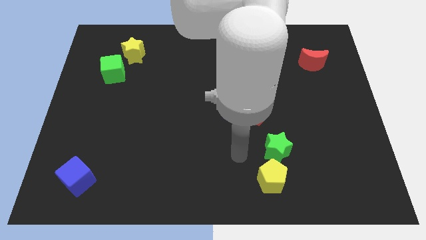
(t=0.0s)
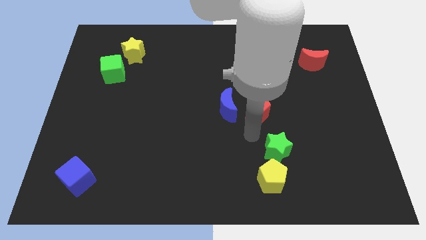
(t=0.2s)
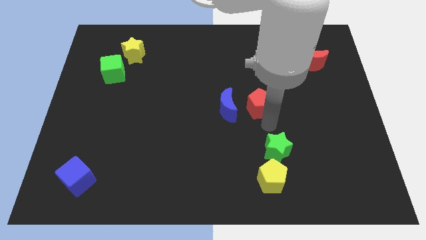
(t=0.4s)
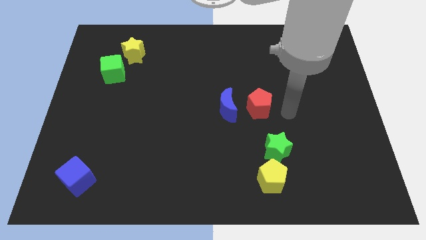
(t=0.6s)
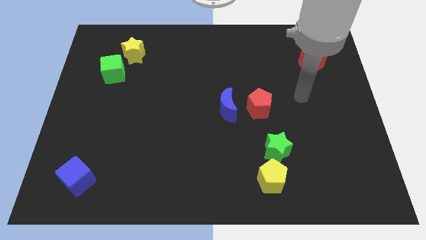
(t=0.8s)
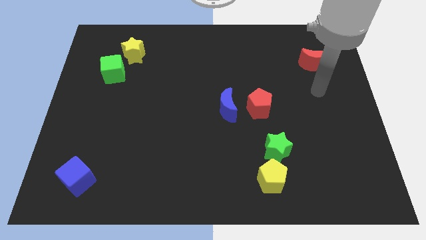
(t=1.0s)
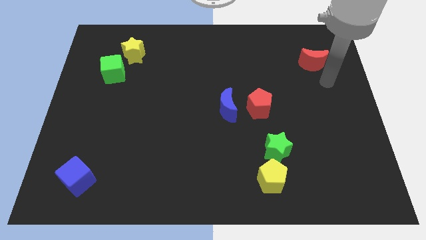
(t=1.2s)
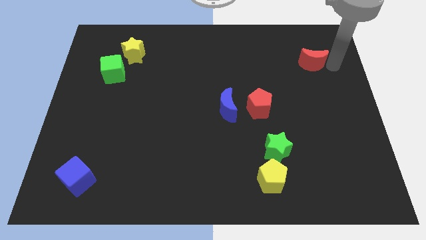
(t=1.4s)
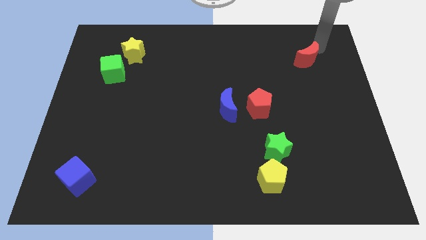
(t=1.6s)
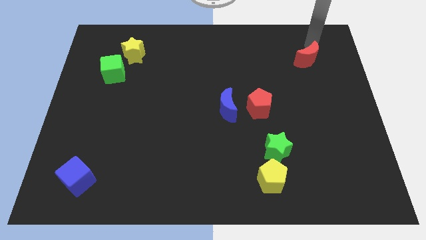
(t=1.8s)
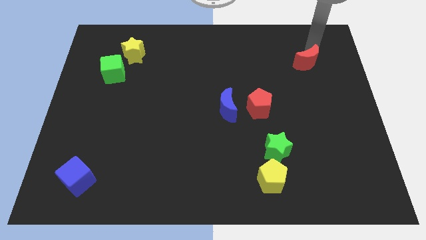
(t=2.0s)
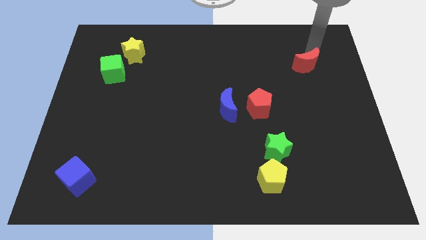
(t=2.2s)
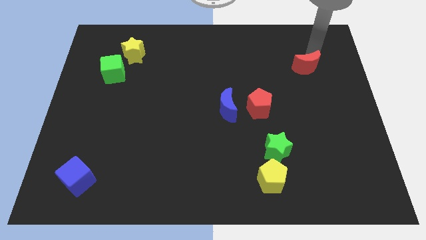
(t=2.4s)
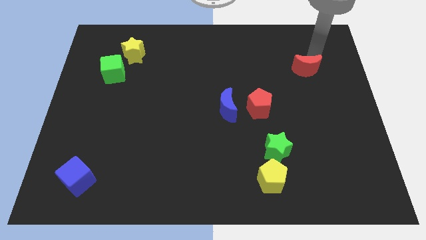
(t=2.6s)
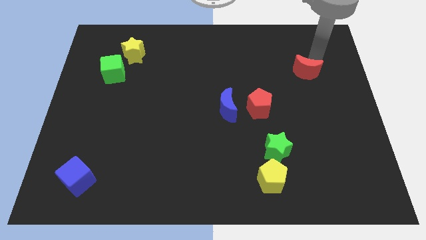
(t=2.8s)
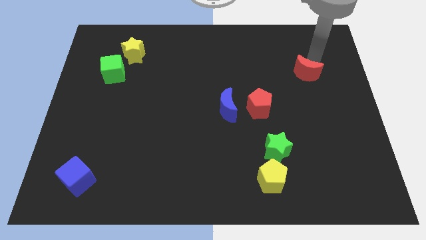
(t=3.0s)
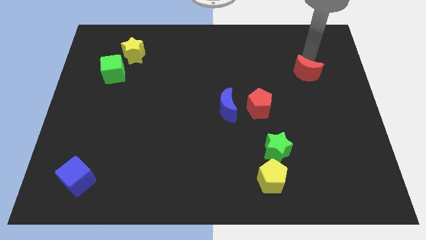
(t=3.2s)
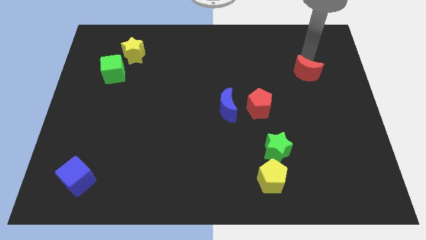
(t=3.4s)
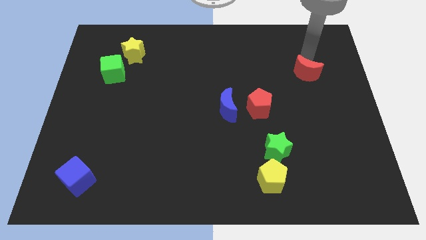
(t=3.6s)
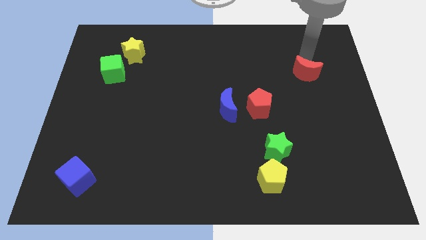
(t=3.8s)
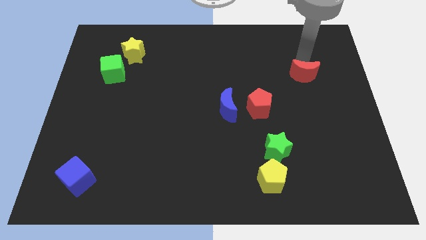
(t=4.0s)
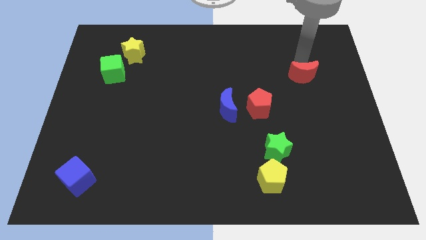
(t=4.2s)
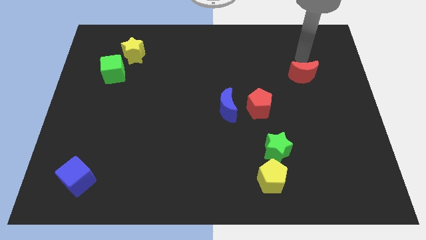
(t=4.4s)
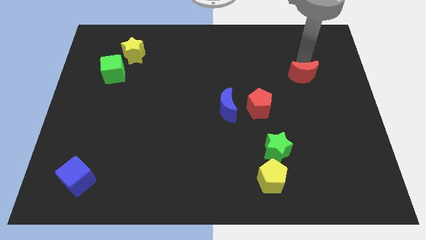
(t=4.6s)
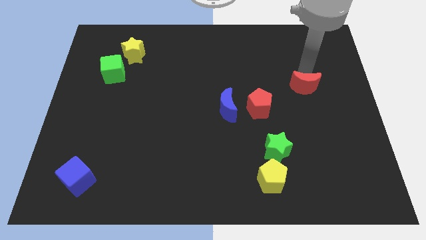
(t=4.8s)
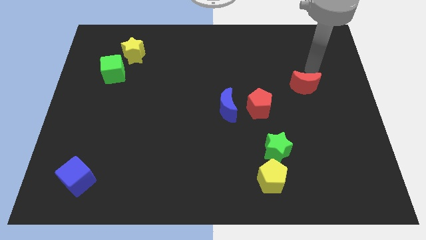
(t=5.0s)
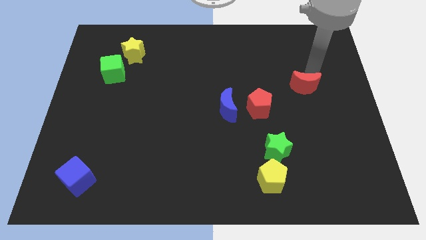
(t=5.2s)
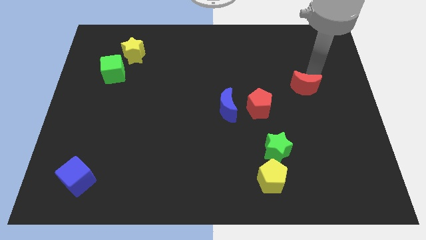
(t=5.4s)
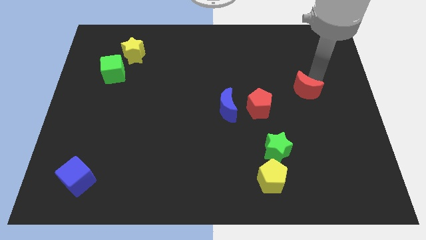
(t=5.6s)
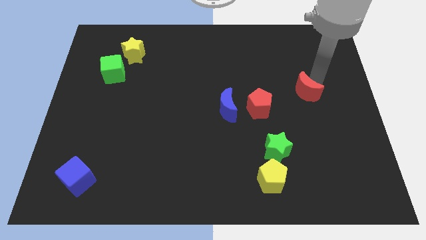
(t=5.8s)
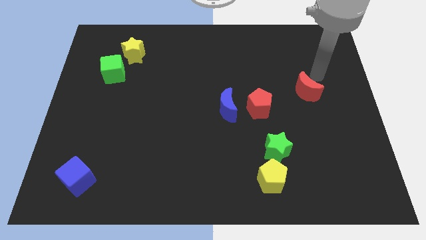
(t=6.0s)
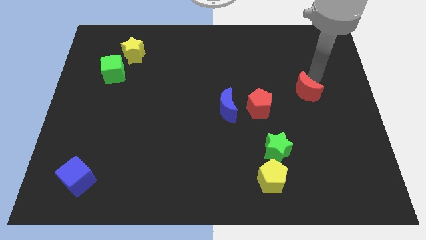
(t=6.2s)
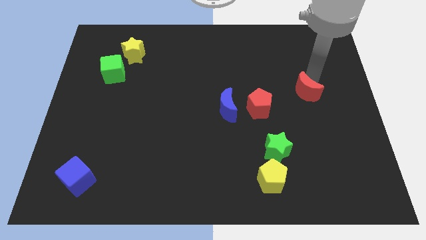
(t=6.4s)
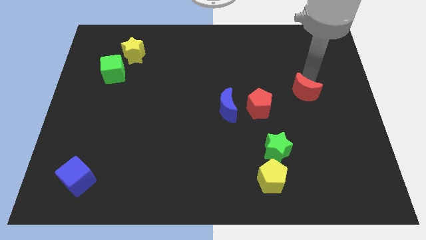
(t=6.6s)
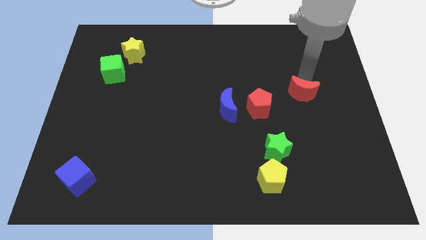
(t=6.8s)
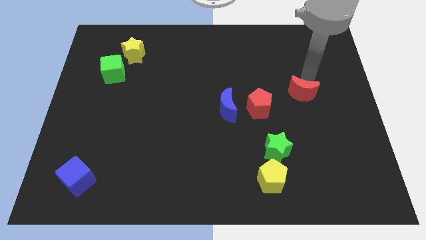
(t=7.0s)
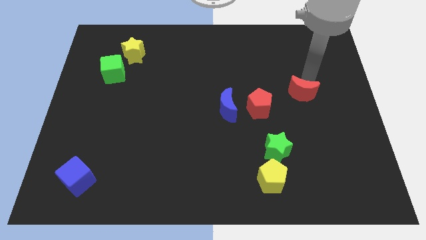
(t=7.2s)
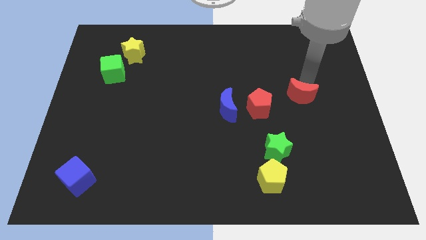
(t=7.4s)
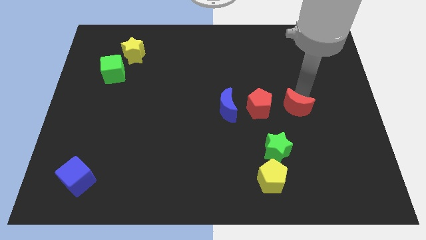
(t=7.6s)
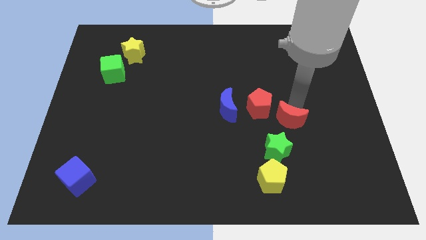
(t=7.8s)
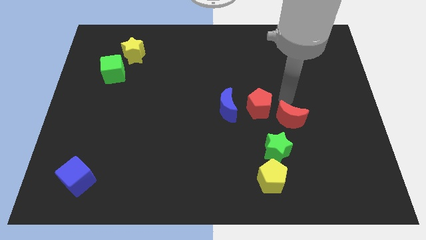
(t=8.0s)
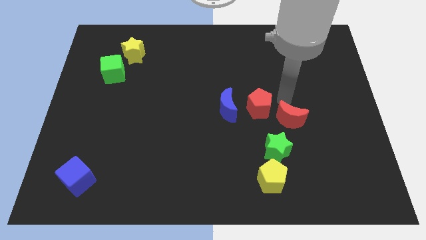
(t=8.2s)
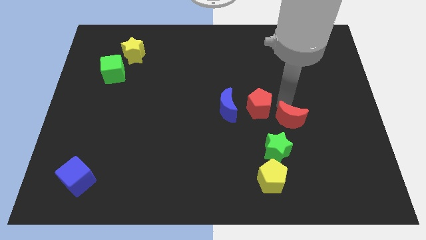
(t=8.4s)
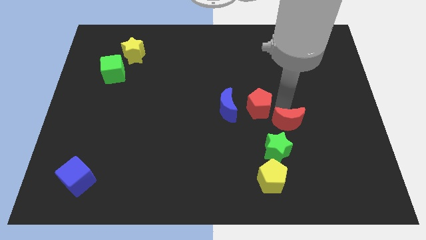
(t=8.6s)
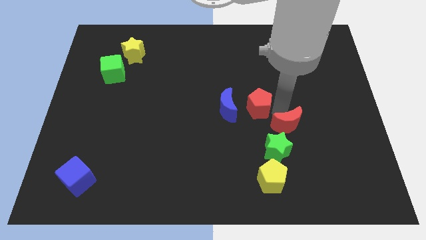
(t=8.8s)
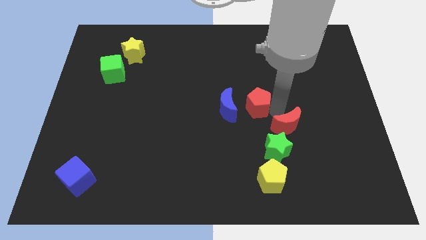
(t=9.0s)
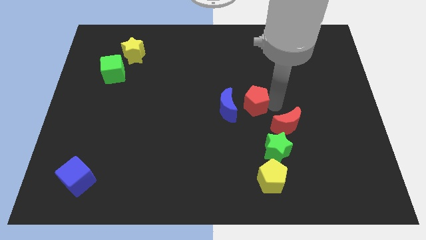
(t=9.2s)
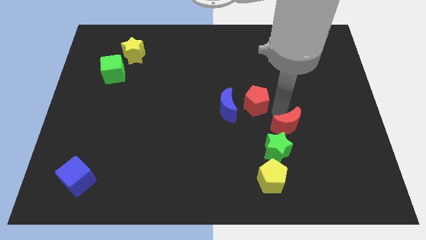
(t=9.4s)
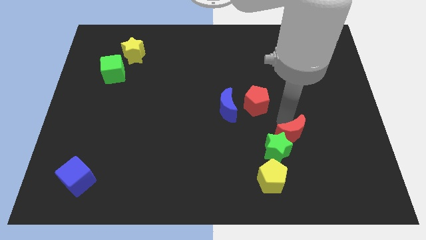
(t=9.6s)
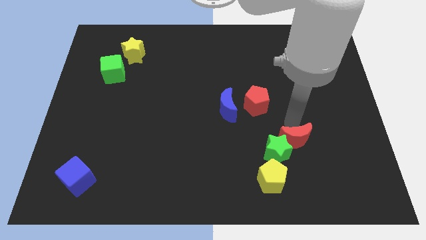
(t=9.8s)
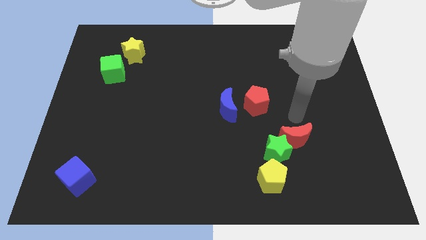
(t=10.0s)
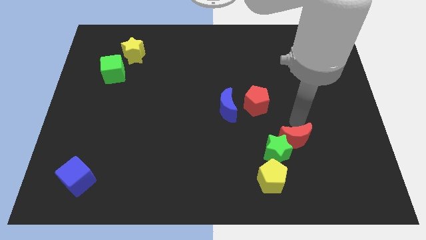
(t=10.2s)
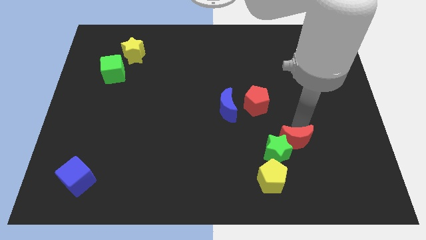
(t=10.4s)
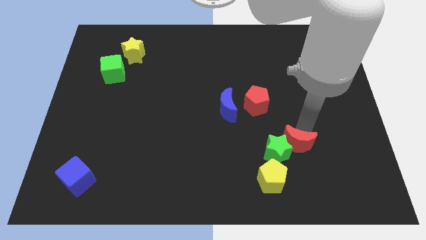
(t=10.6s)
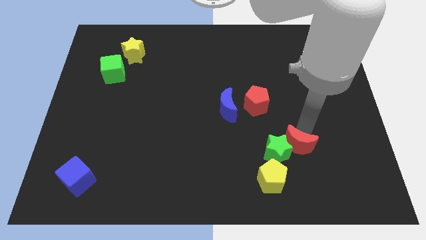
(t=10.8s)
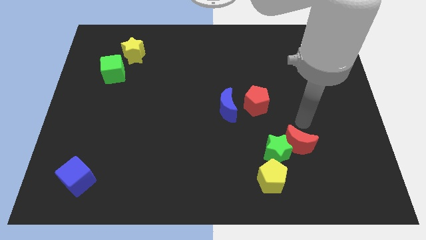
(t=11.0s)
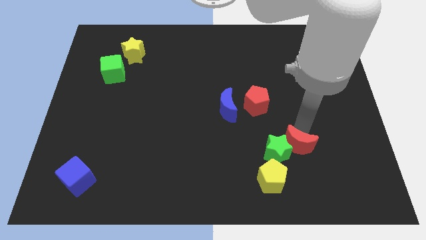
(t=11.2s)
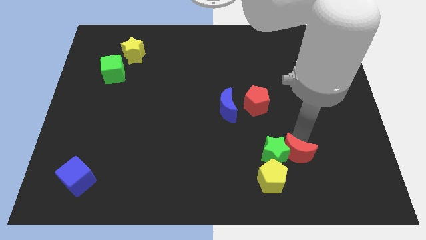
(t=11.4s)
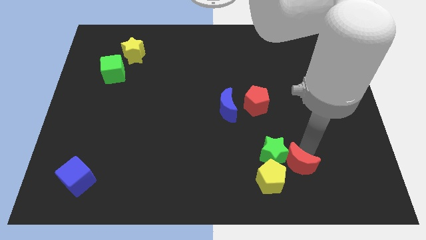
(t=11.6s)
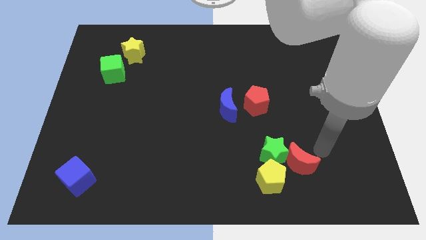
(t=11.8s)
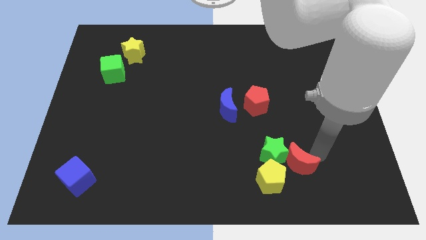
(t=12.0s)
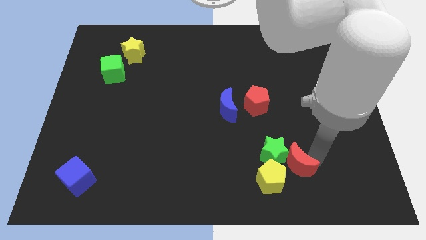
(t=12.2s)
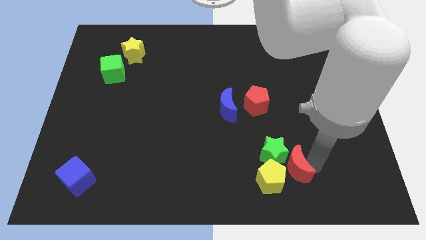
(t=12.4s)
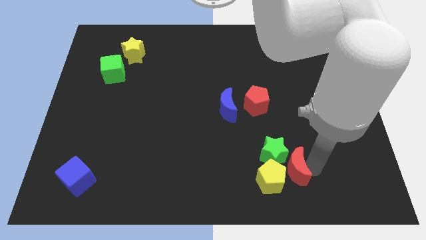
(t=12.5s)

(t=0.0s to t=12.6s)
put the red moon towards the yellow pentagon

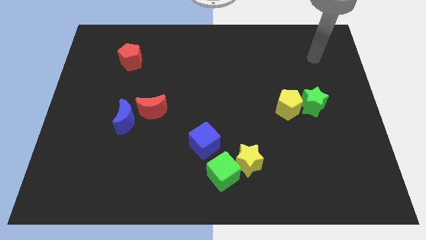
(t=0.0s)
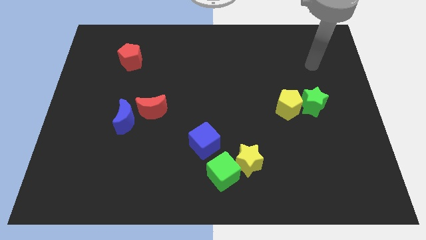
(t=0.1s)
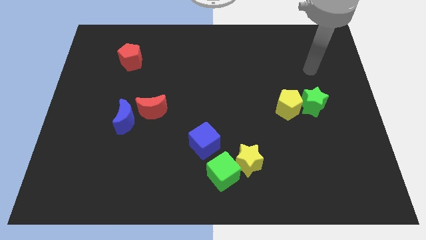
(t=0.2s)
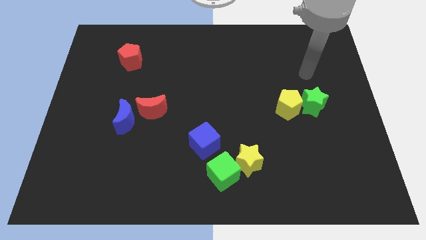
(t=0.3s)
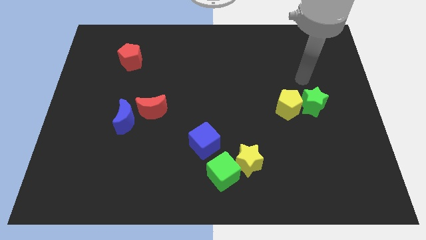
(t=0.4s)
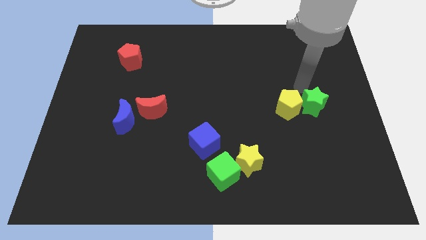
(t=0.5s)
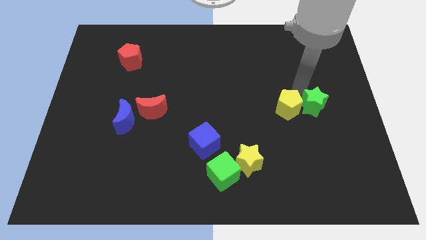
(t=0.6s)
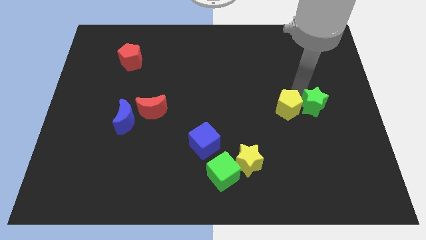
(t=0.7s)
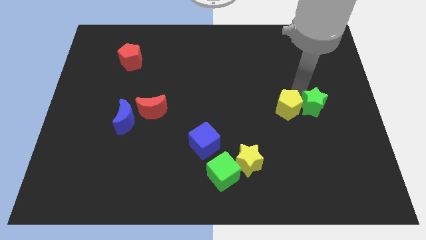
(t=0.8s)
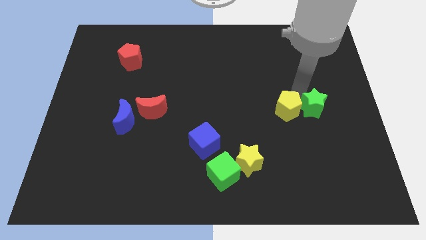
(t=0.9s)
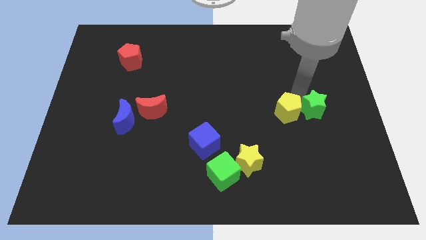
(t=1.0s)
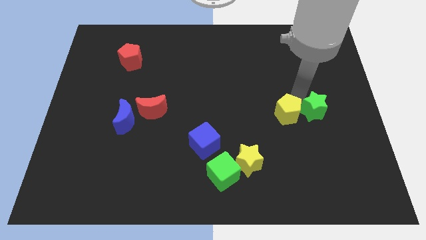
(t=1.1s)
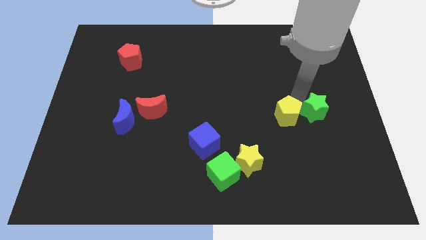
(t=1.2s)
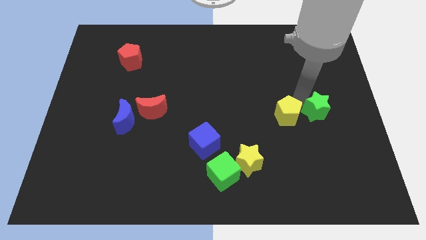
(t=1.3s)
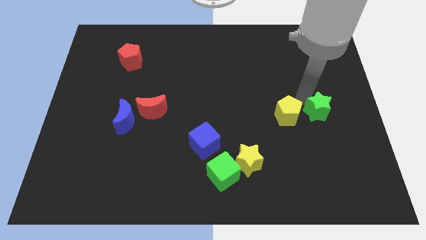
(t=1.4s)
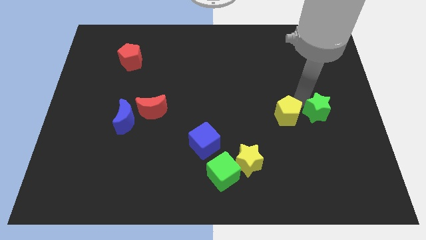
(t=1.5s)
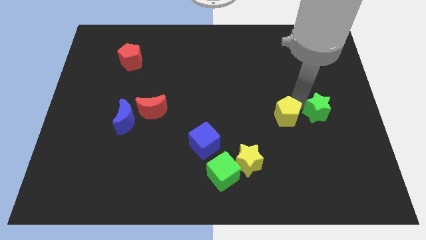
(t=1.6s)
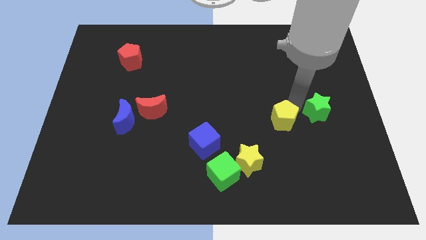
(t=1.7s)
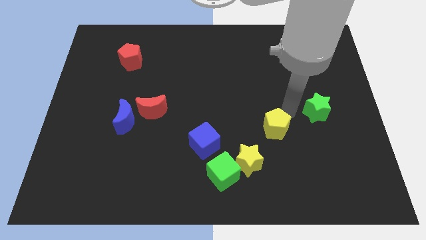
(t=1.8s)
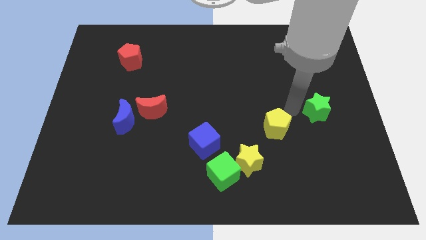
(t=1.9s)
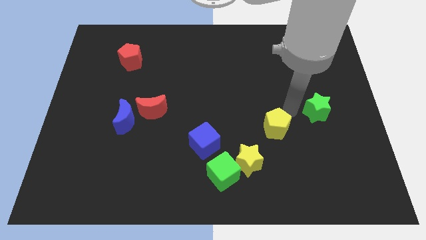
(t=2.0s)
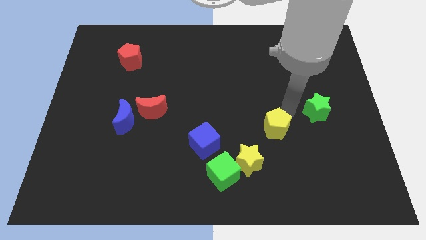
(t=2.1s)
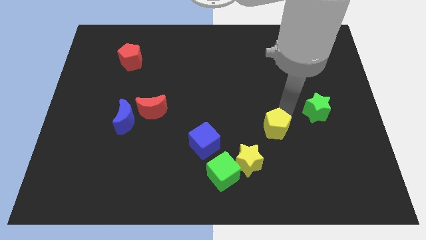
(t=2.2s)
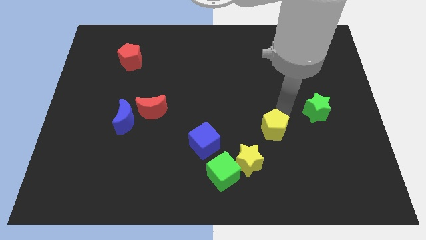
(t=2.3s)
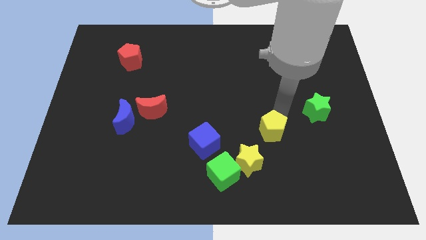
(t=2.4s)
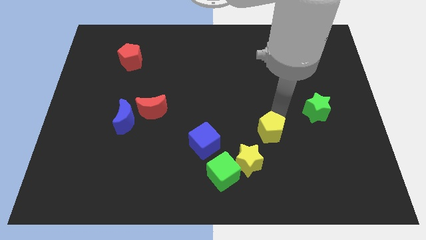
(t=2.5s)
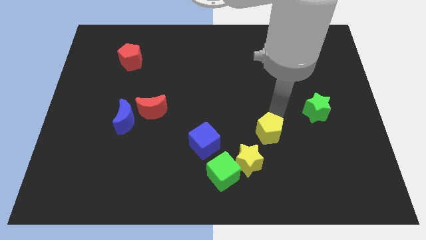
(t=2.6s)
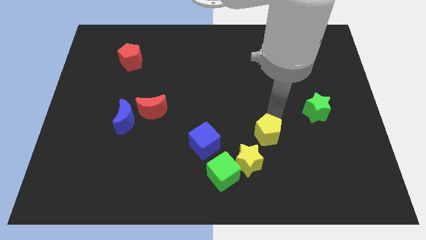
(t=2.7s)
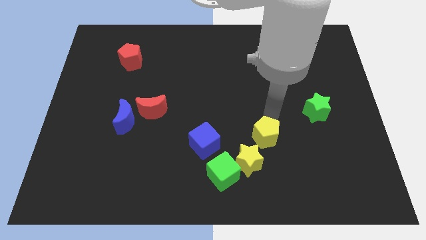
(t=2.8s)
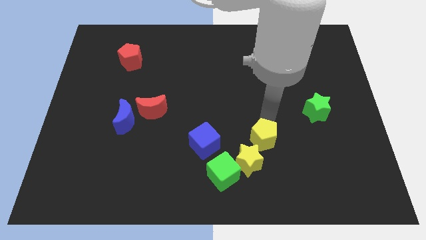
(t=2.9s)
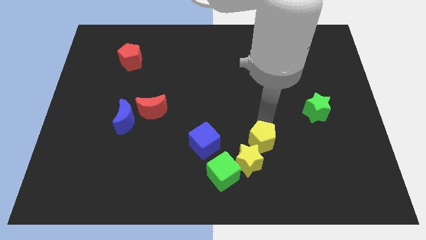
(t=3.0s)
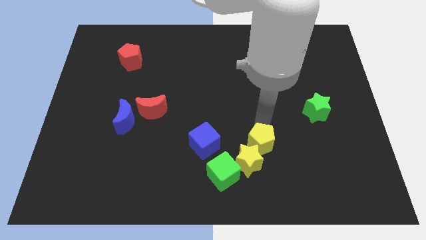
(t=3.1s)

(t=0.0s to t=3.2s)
put the yellow pentagon towards the yellow star
